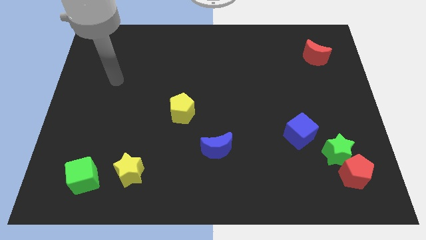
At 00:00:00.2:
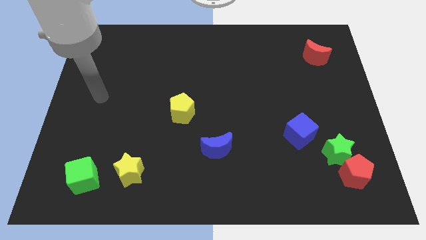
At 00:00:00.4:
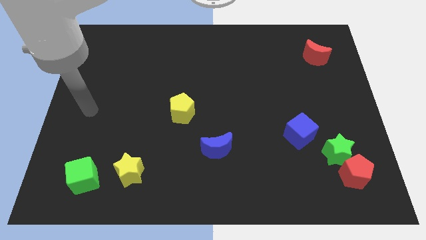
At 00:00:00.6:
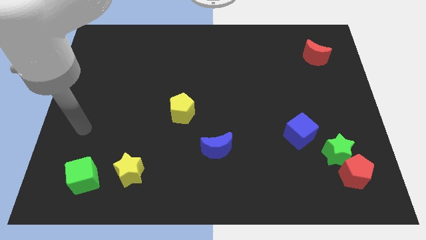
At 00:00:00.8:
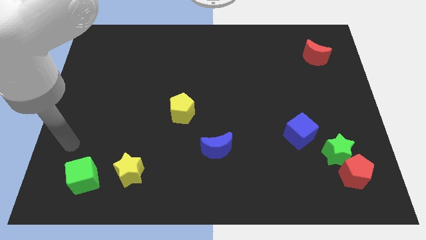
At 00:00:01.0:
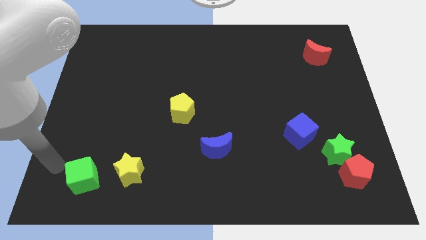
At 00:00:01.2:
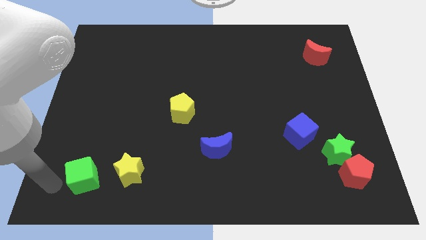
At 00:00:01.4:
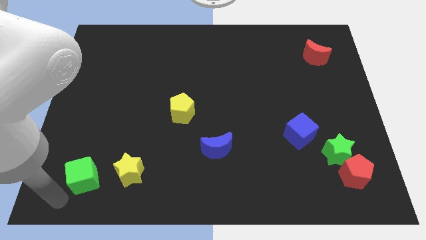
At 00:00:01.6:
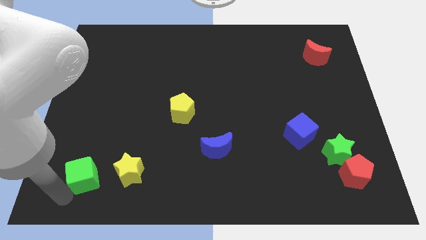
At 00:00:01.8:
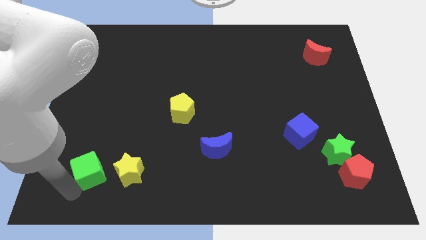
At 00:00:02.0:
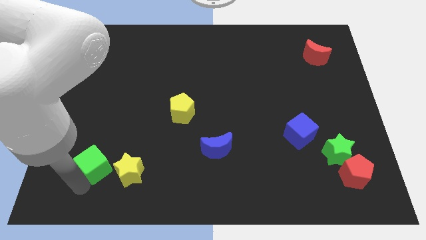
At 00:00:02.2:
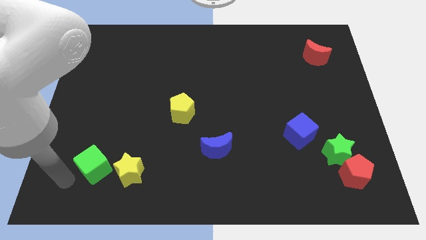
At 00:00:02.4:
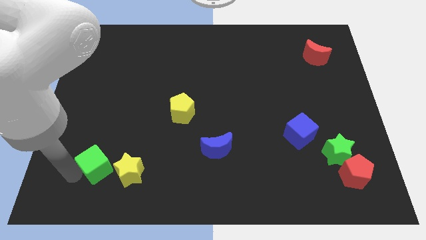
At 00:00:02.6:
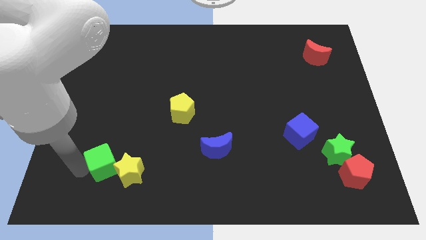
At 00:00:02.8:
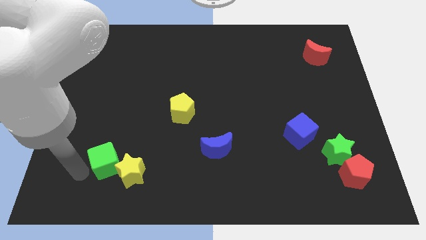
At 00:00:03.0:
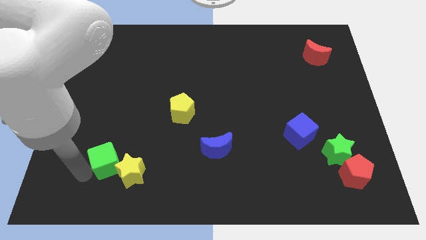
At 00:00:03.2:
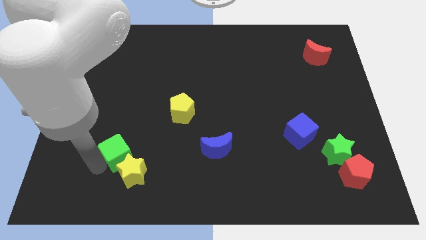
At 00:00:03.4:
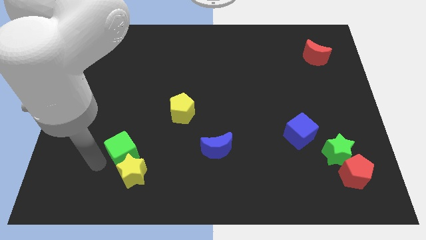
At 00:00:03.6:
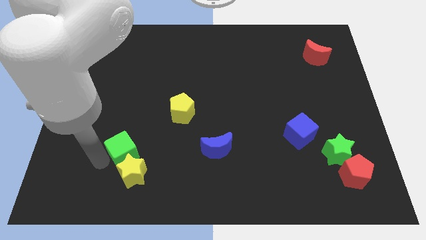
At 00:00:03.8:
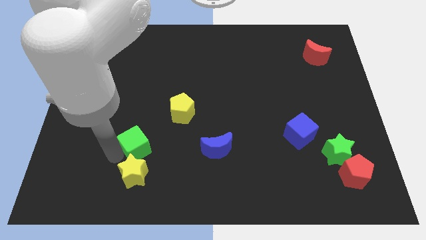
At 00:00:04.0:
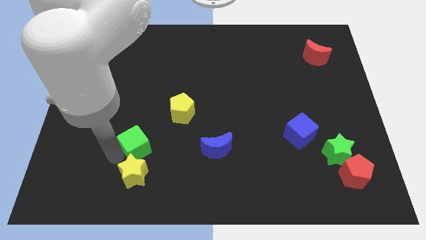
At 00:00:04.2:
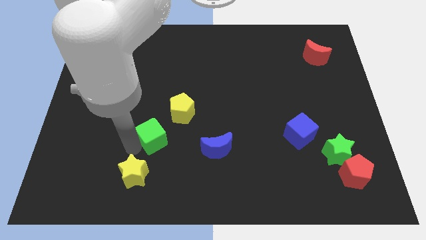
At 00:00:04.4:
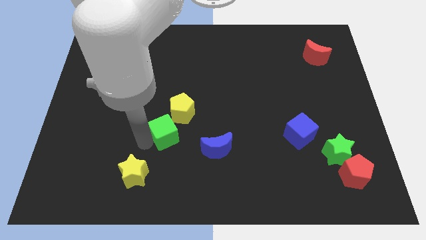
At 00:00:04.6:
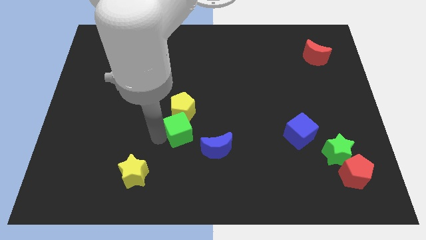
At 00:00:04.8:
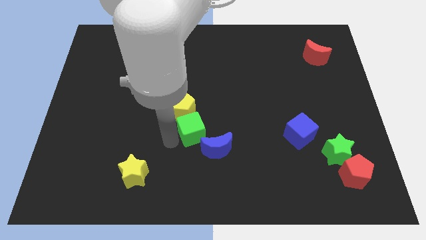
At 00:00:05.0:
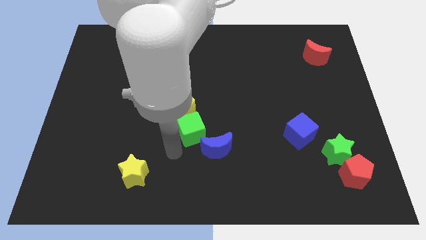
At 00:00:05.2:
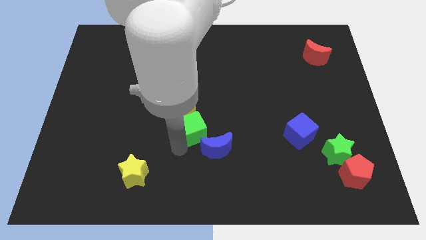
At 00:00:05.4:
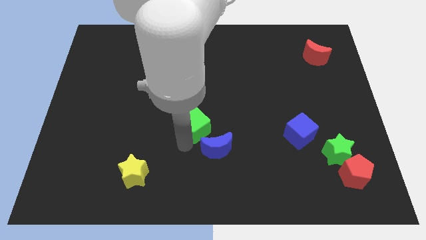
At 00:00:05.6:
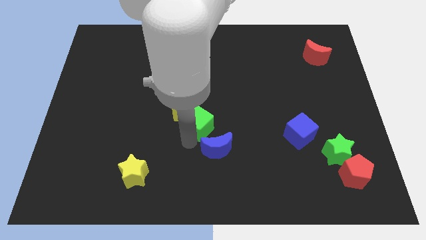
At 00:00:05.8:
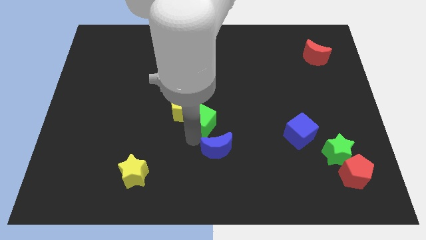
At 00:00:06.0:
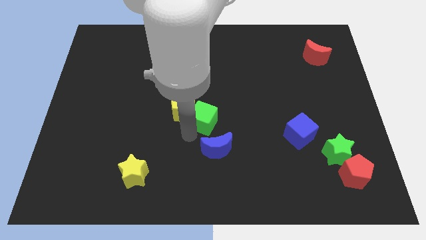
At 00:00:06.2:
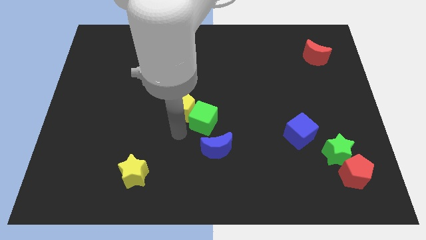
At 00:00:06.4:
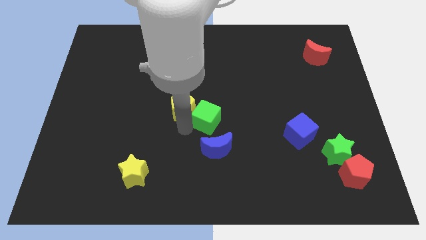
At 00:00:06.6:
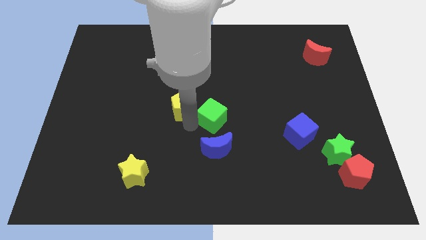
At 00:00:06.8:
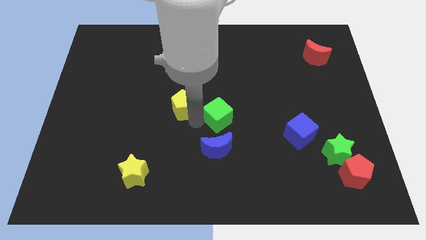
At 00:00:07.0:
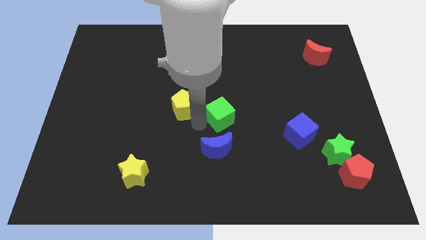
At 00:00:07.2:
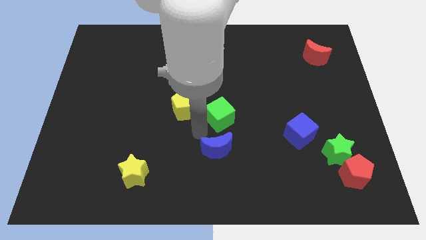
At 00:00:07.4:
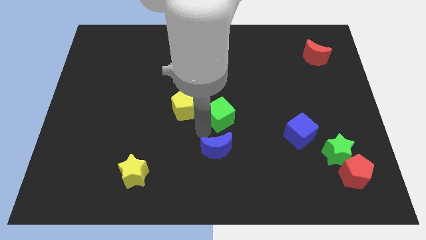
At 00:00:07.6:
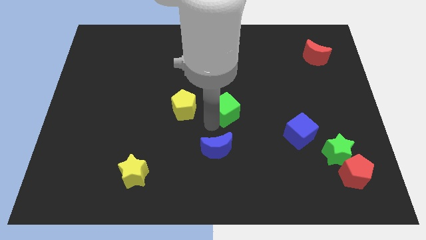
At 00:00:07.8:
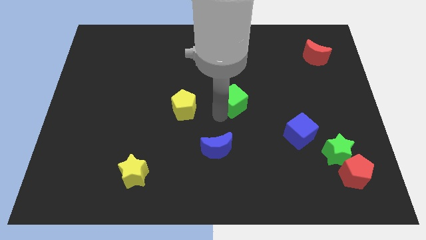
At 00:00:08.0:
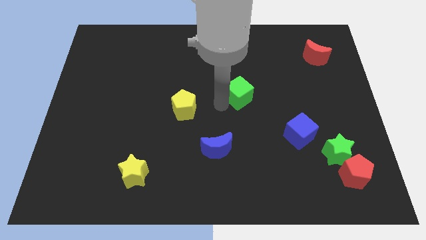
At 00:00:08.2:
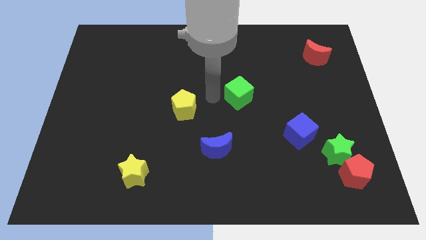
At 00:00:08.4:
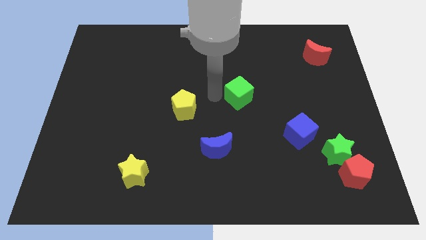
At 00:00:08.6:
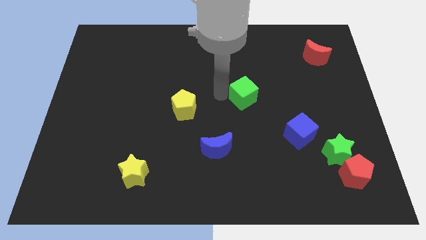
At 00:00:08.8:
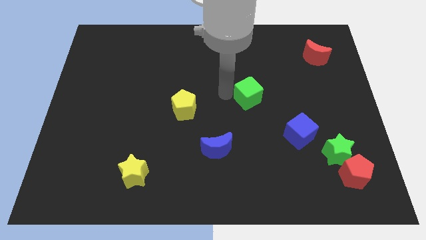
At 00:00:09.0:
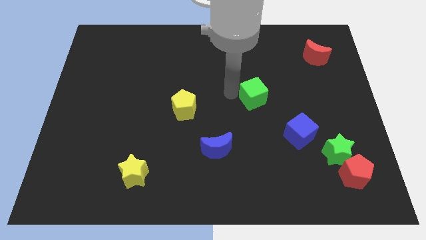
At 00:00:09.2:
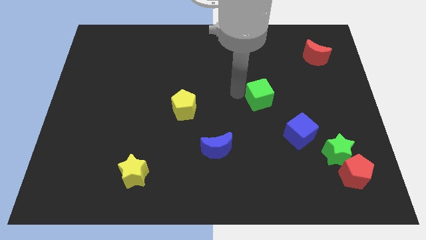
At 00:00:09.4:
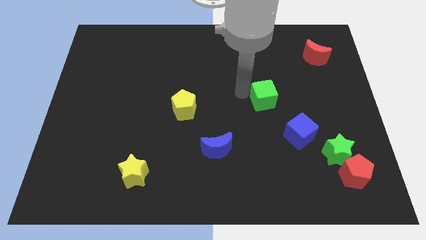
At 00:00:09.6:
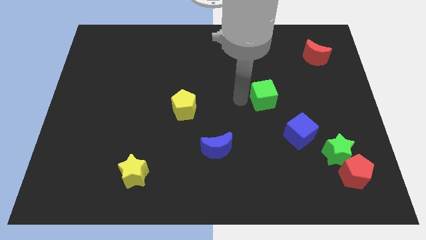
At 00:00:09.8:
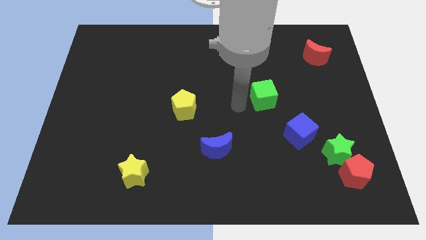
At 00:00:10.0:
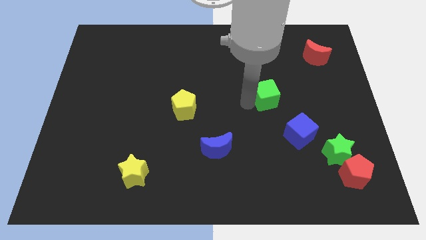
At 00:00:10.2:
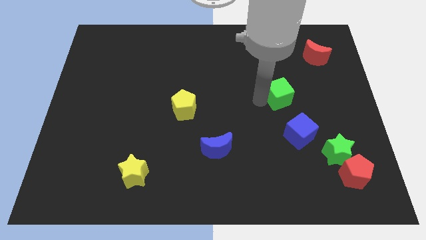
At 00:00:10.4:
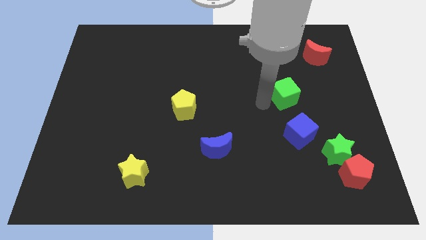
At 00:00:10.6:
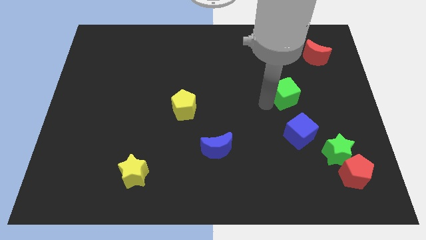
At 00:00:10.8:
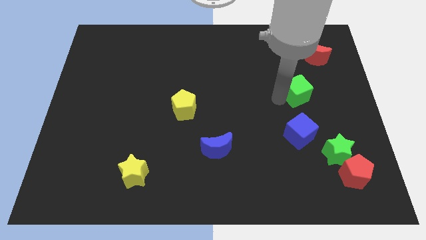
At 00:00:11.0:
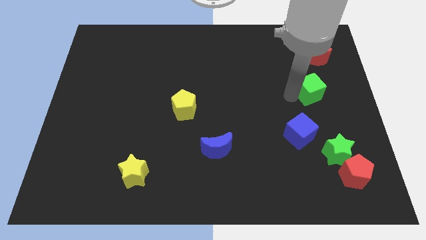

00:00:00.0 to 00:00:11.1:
put the green cube to the bottom of the red moon
